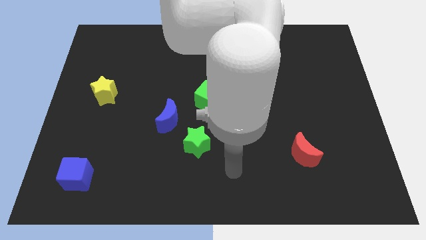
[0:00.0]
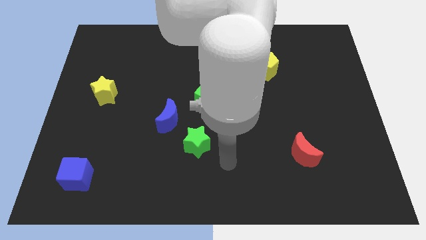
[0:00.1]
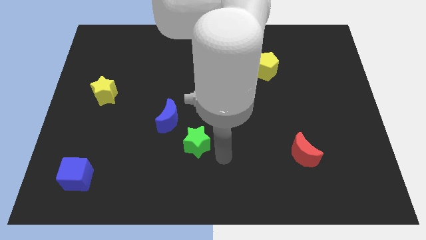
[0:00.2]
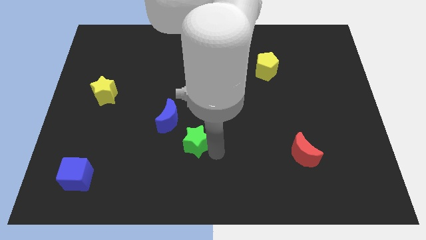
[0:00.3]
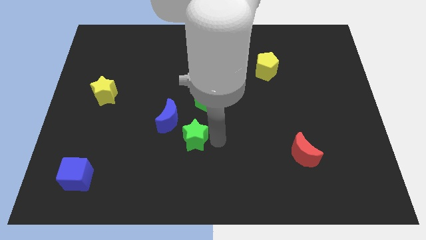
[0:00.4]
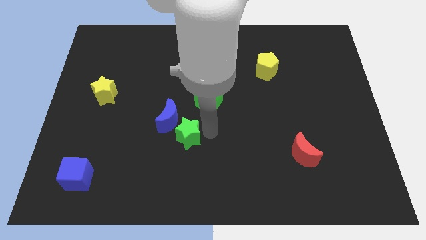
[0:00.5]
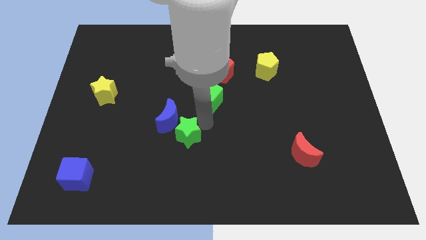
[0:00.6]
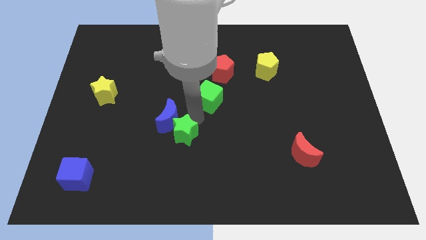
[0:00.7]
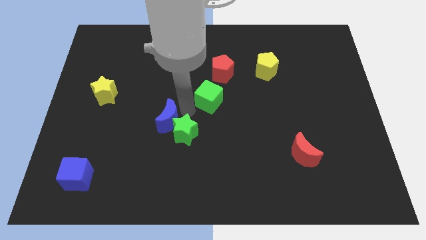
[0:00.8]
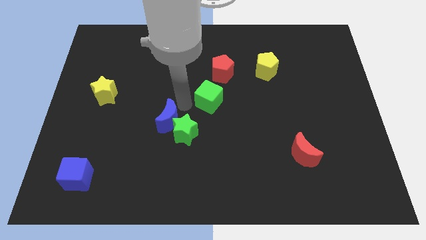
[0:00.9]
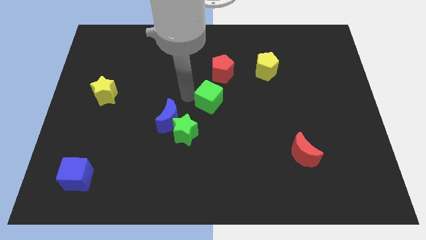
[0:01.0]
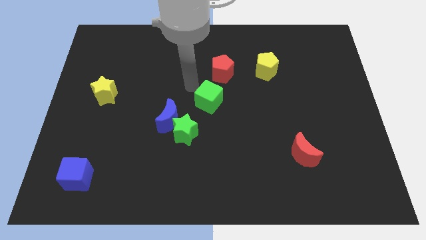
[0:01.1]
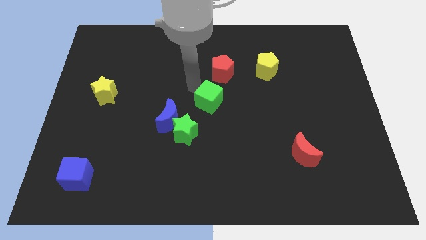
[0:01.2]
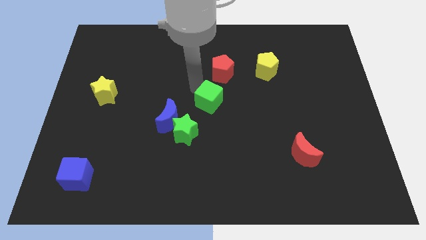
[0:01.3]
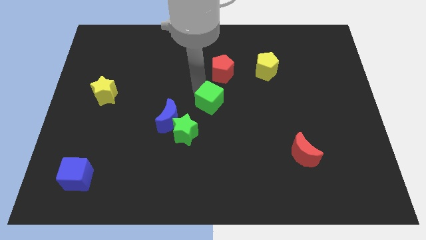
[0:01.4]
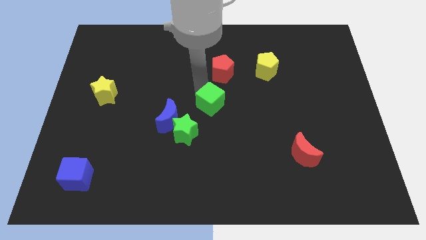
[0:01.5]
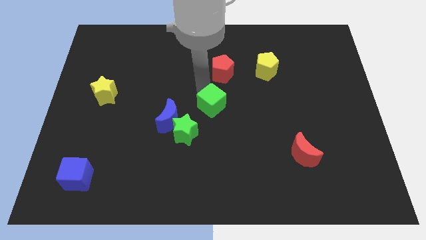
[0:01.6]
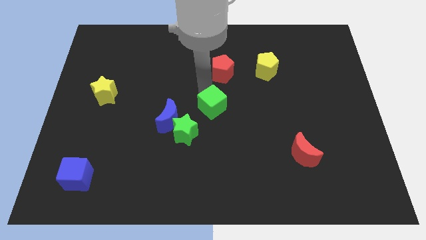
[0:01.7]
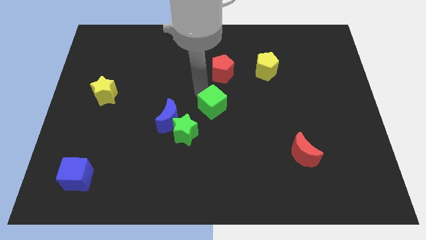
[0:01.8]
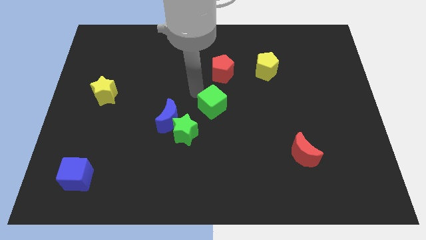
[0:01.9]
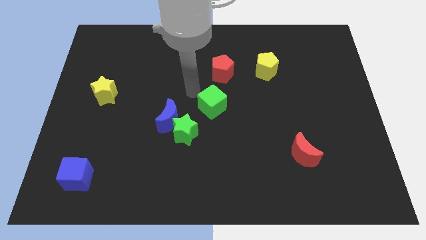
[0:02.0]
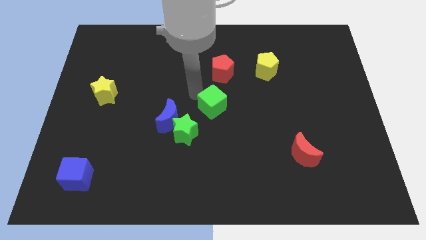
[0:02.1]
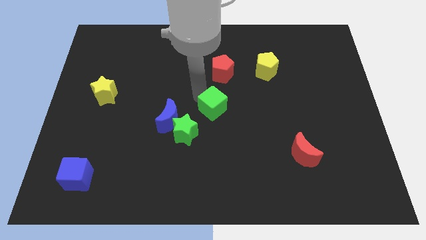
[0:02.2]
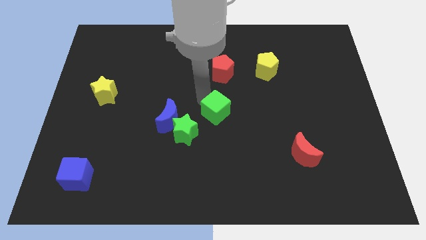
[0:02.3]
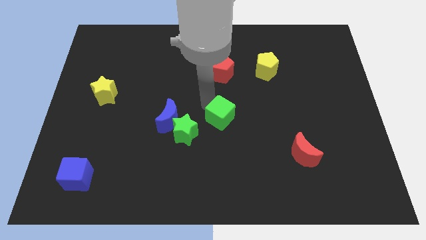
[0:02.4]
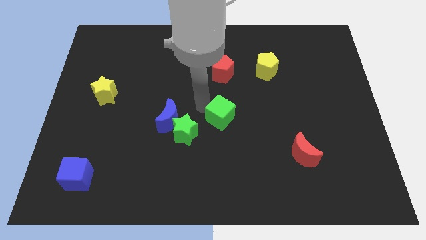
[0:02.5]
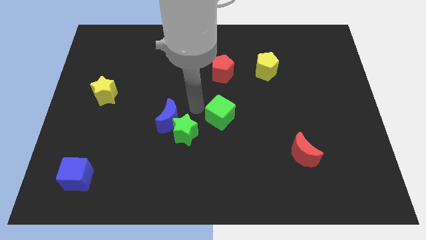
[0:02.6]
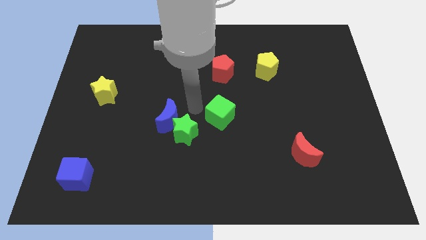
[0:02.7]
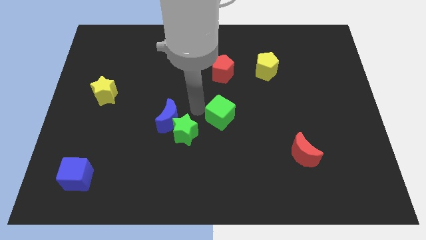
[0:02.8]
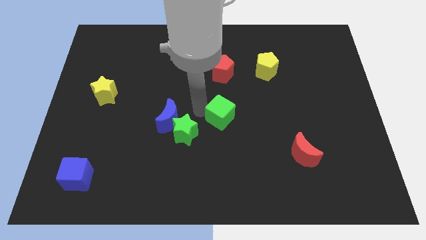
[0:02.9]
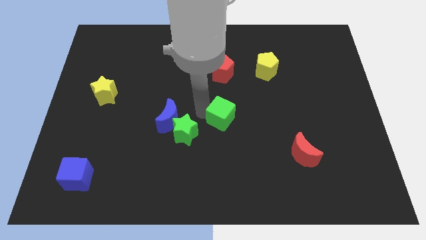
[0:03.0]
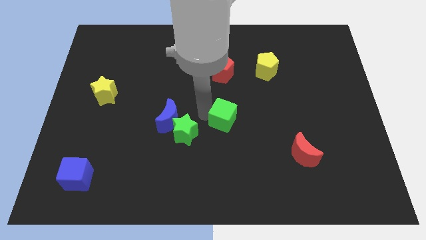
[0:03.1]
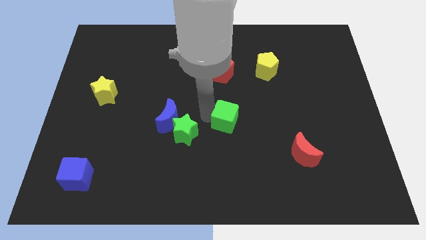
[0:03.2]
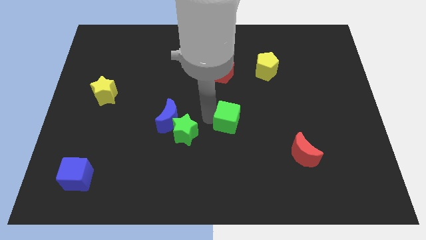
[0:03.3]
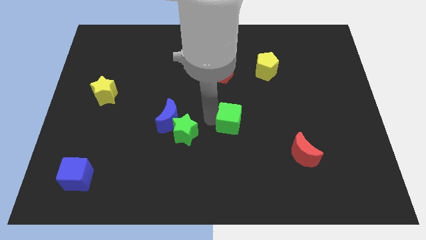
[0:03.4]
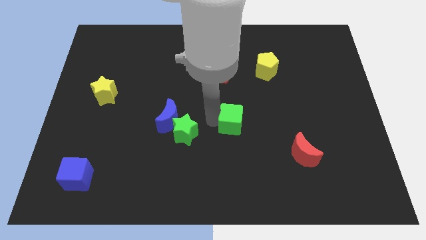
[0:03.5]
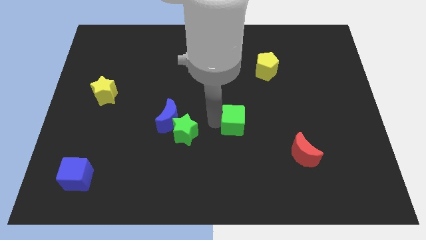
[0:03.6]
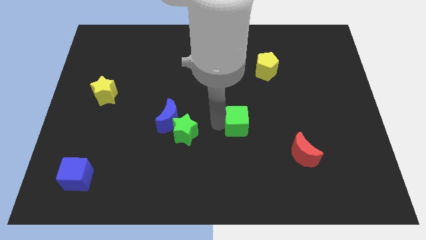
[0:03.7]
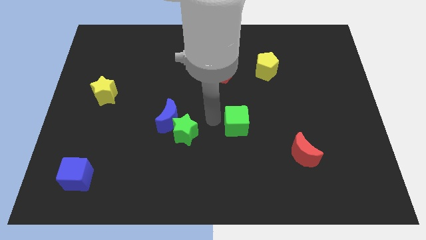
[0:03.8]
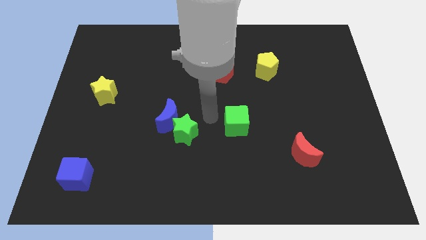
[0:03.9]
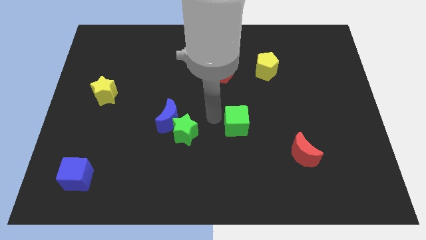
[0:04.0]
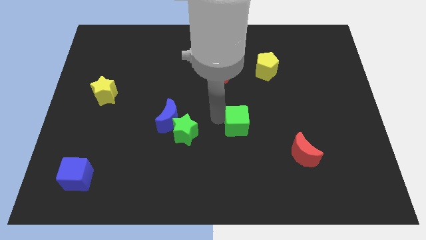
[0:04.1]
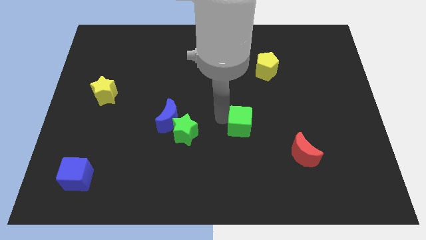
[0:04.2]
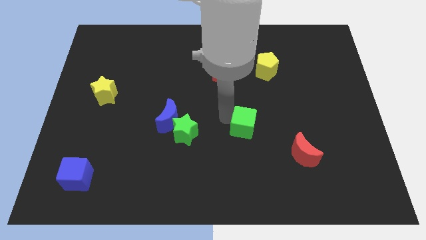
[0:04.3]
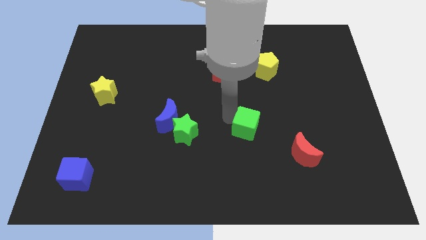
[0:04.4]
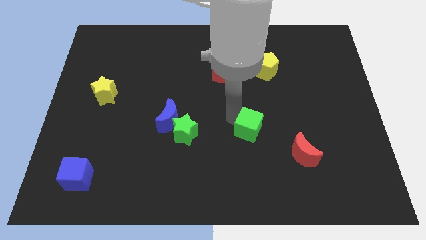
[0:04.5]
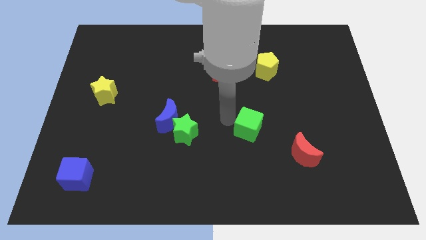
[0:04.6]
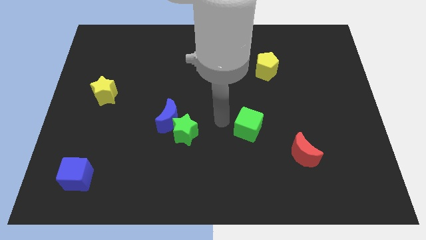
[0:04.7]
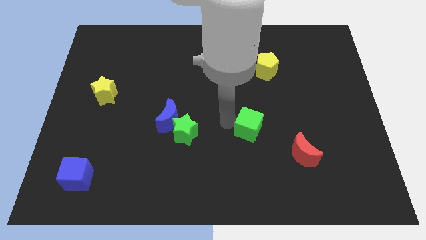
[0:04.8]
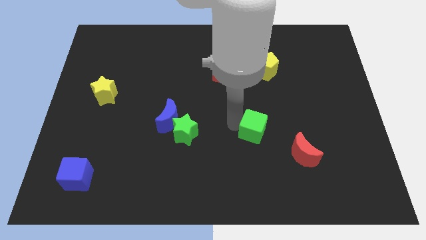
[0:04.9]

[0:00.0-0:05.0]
push the green cube diagonally up and to the left of the red moon

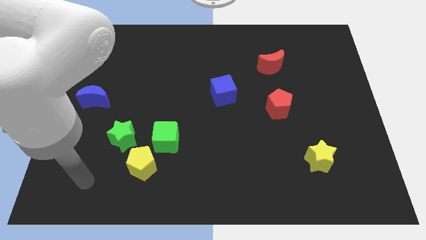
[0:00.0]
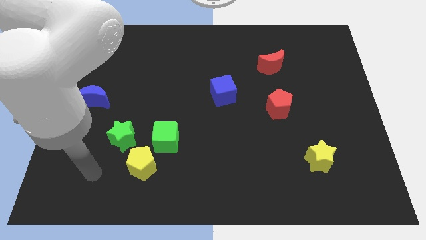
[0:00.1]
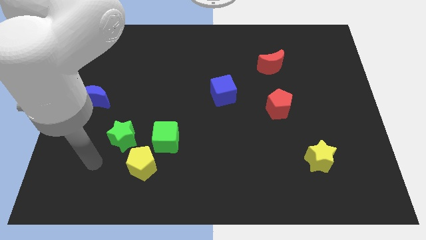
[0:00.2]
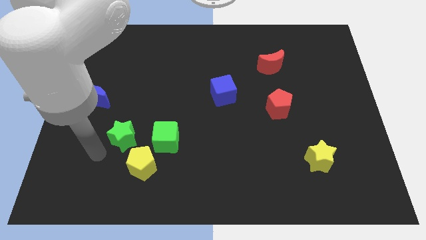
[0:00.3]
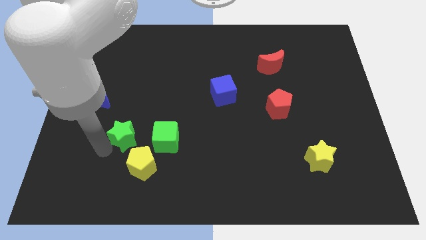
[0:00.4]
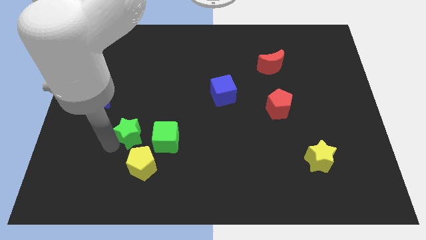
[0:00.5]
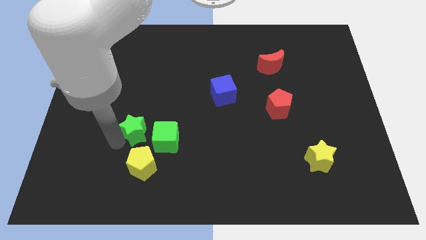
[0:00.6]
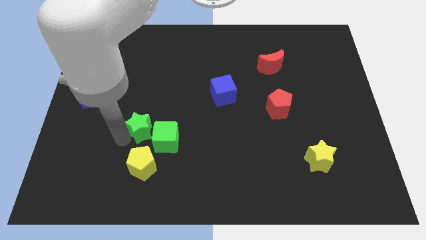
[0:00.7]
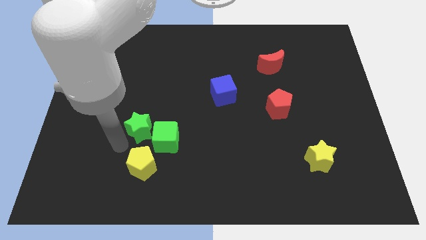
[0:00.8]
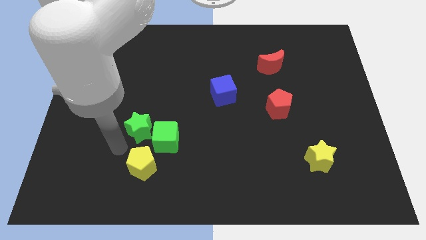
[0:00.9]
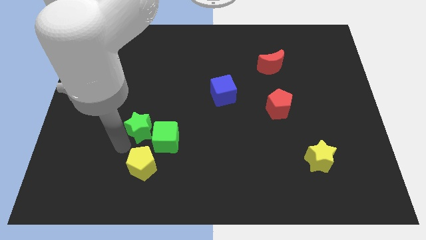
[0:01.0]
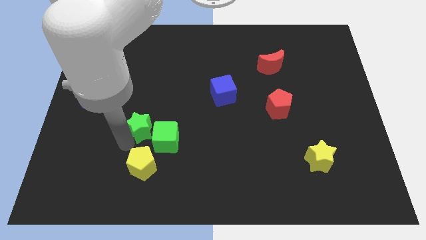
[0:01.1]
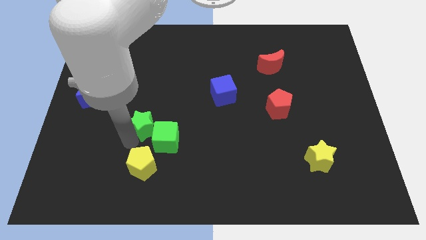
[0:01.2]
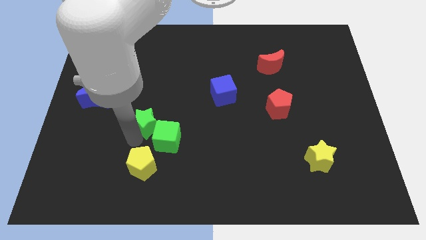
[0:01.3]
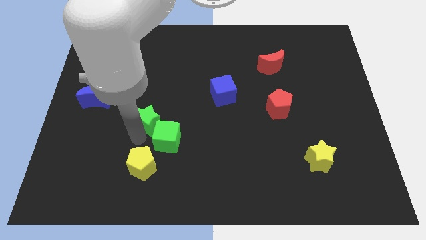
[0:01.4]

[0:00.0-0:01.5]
move the green star to the top of the green cube
